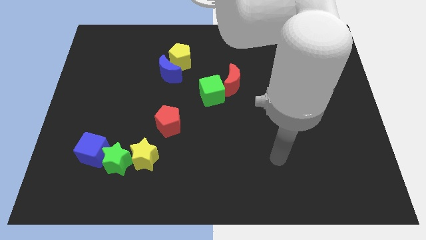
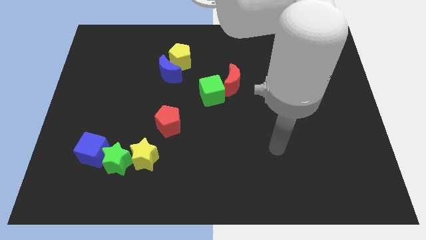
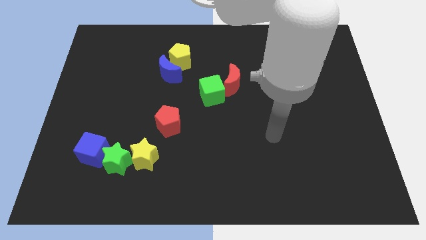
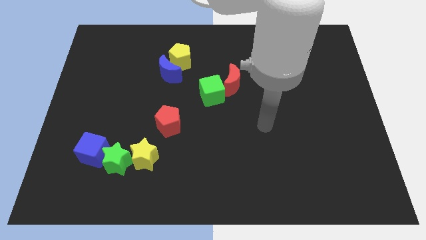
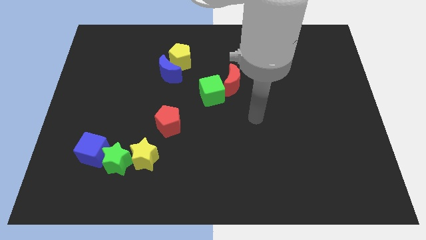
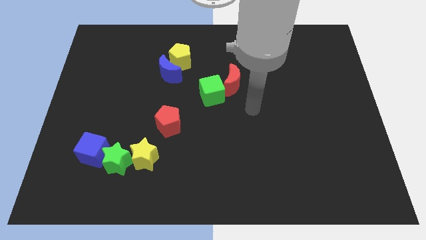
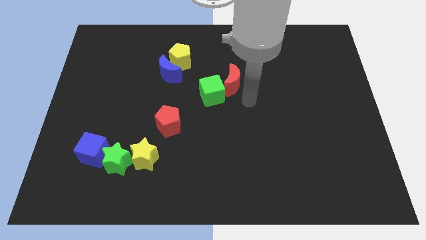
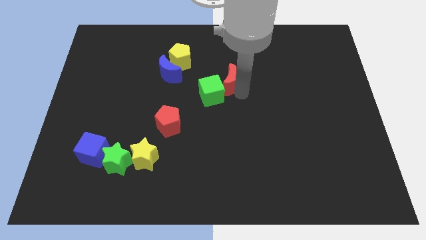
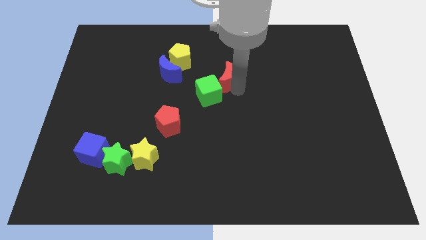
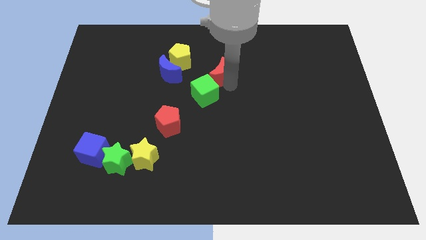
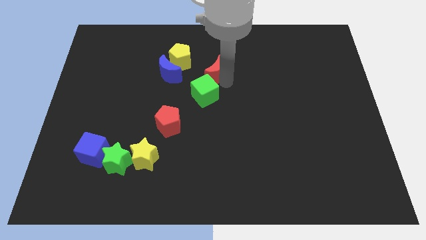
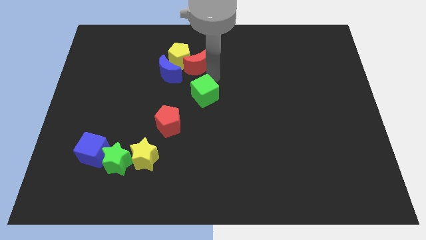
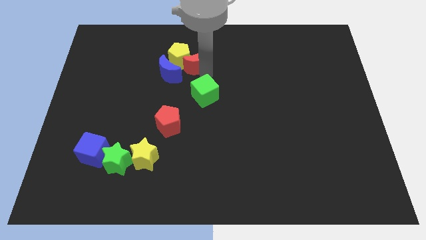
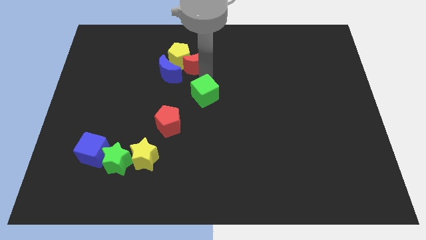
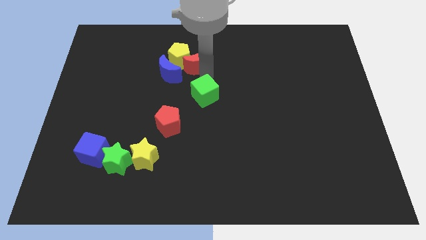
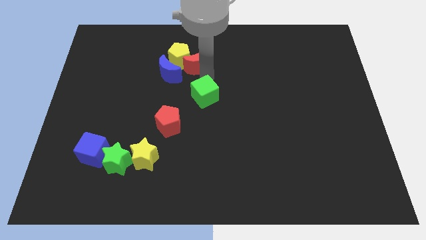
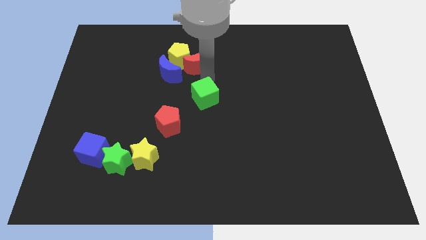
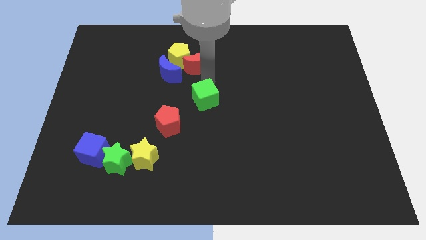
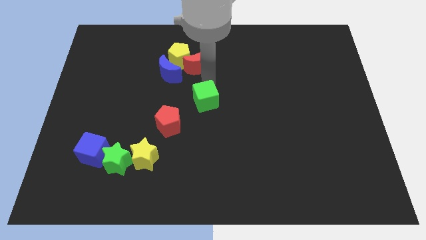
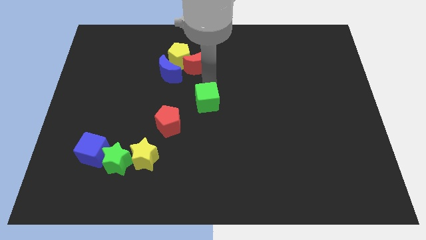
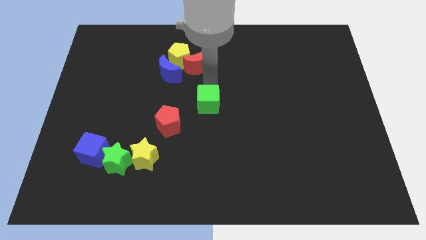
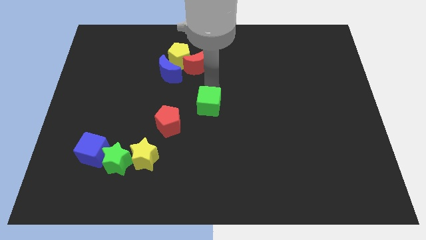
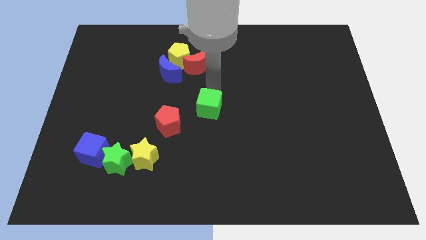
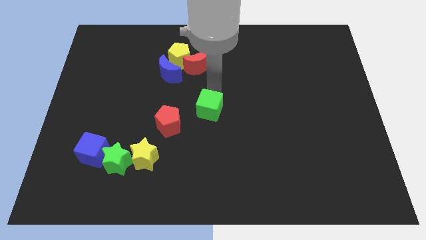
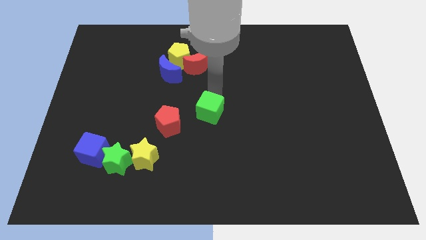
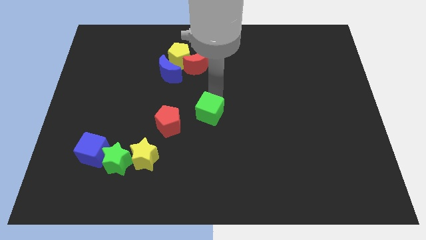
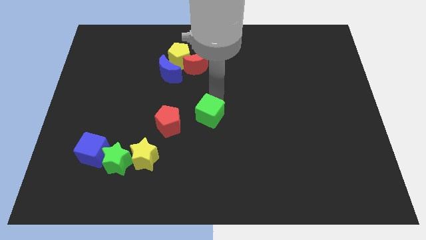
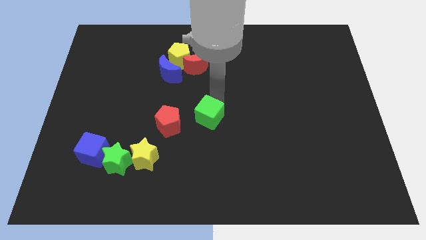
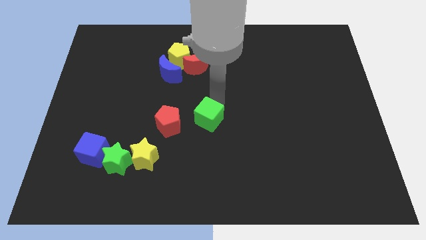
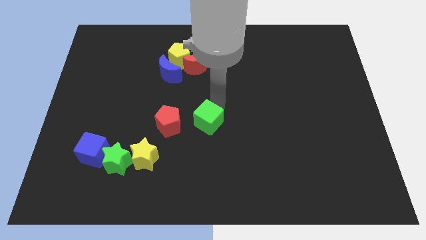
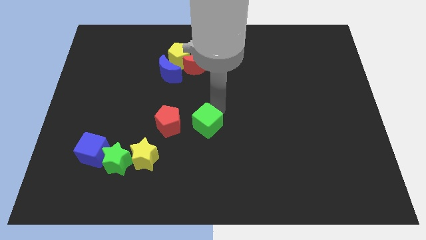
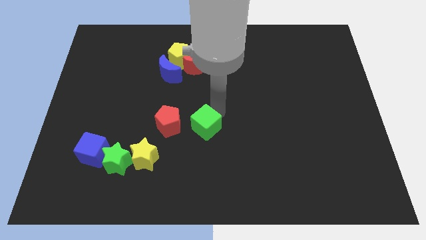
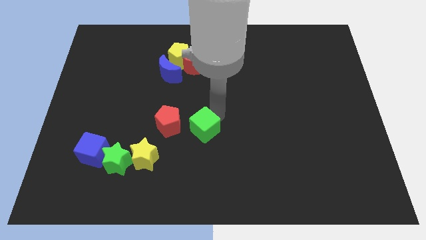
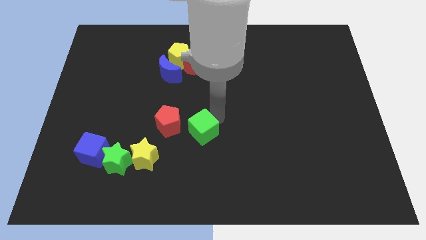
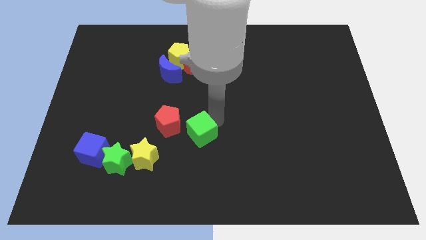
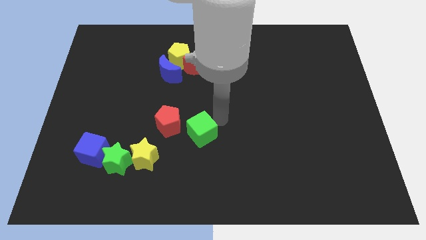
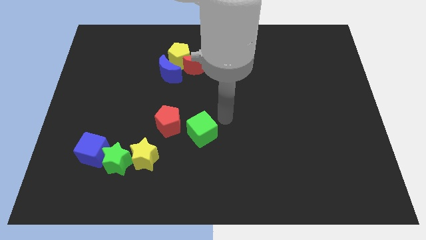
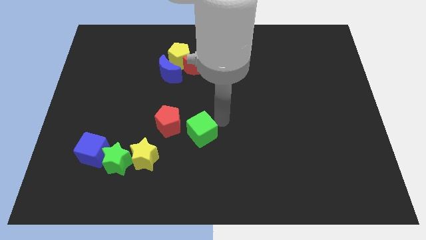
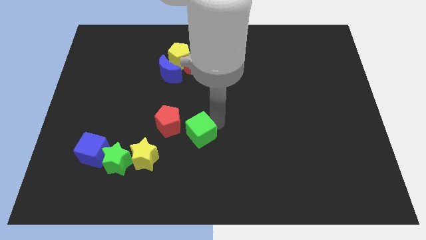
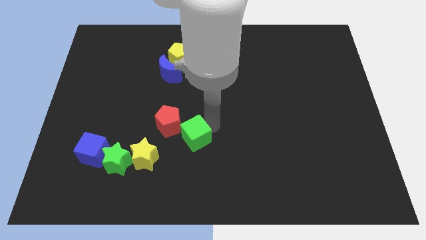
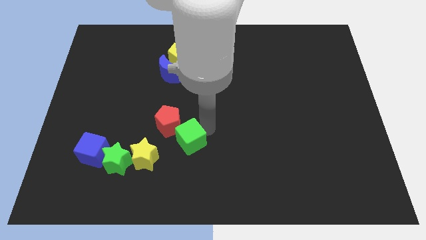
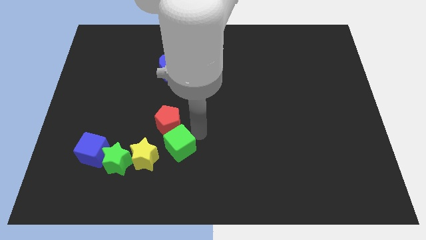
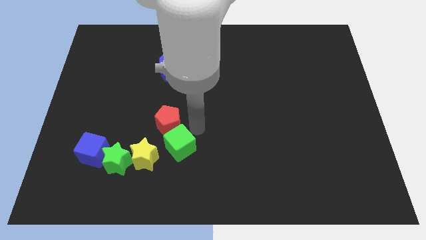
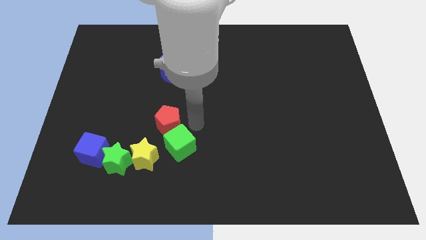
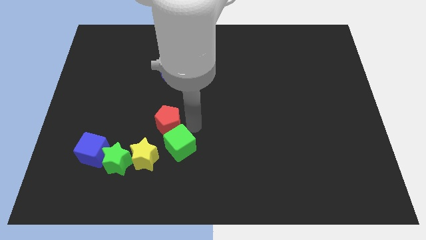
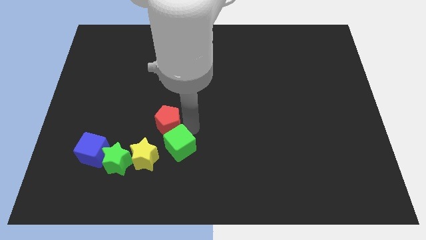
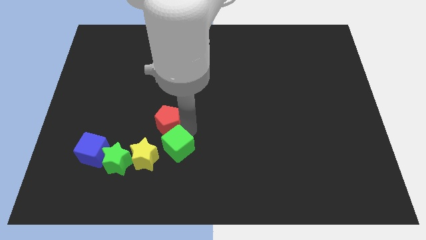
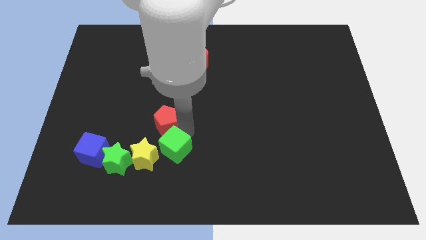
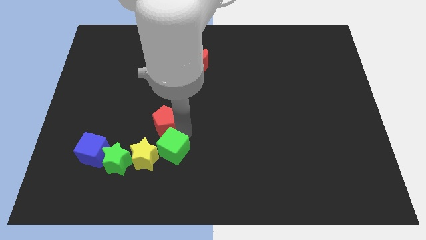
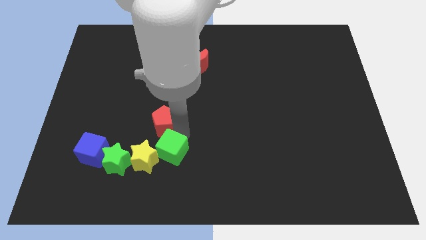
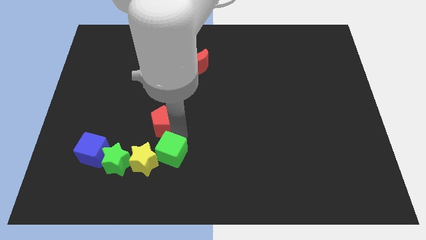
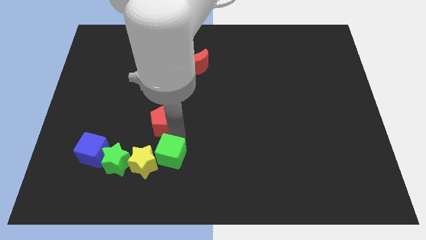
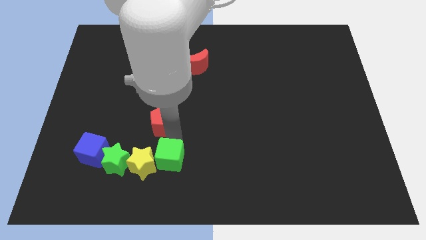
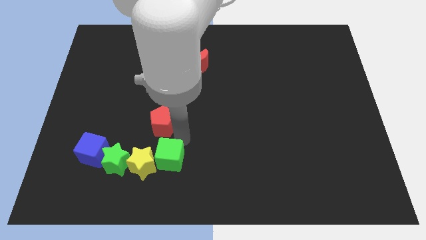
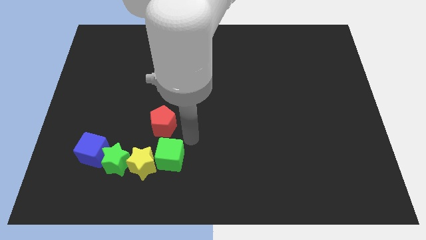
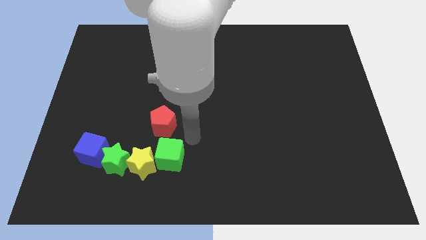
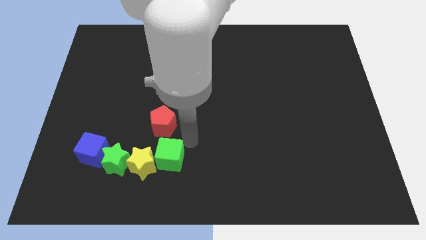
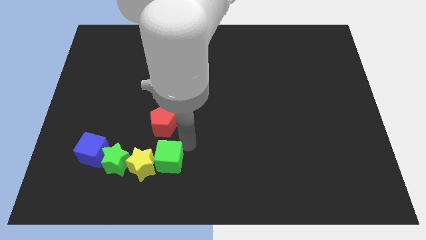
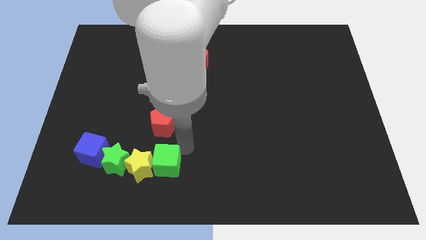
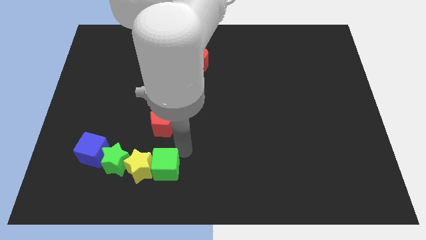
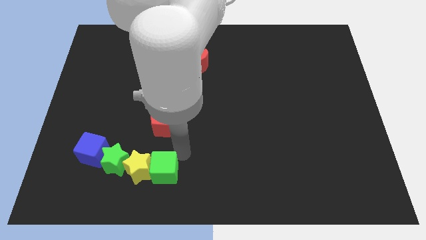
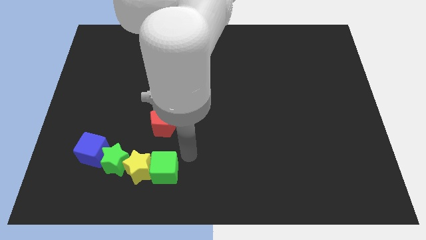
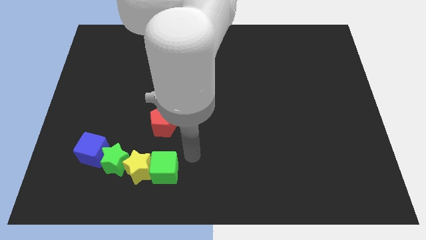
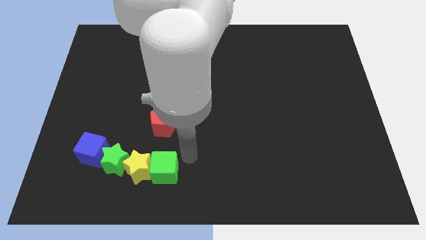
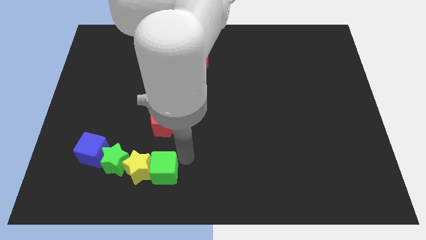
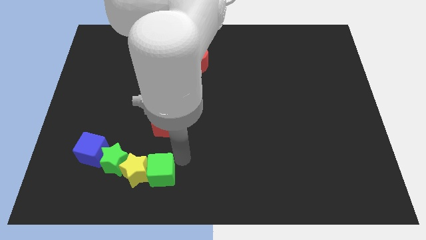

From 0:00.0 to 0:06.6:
slide the green cube to the bottom right side of the green star
